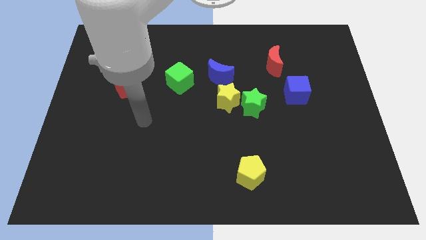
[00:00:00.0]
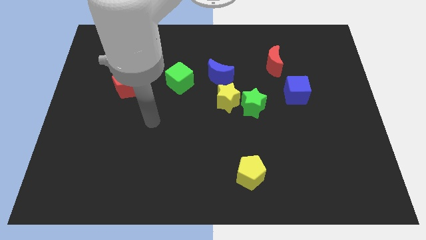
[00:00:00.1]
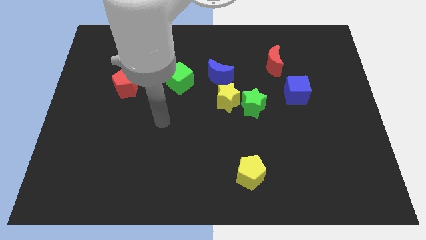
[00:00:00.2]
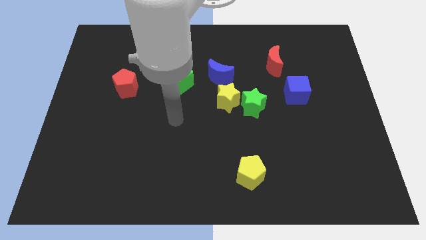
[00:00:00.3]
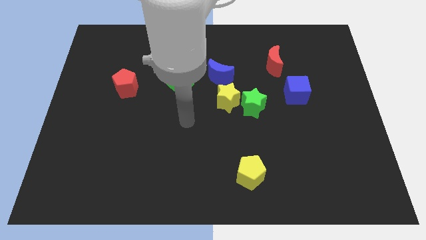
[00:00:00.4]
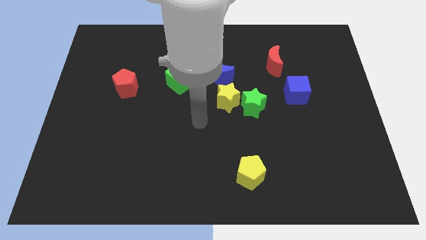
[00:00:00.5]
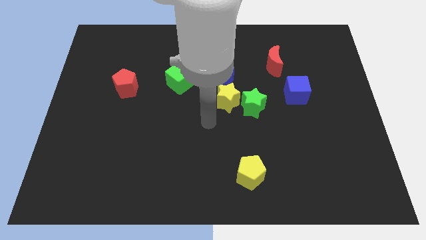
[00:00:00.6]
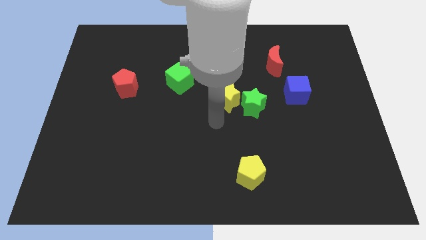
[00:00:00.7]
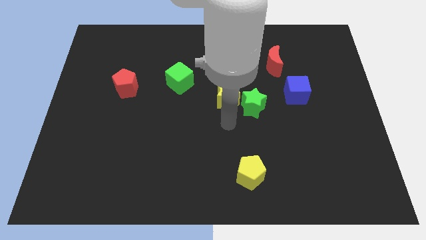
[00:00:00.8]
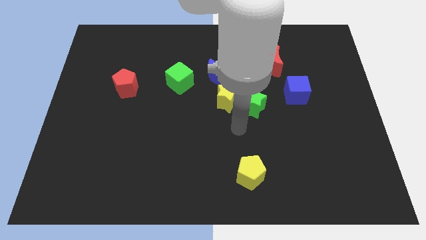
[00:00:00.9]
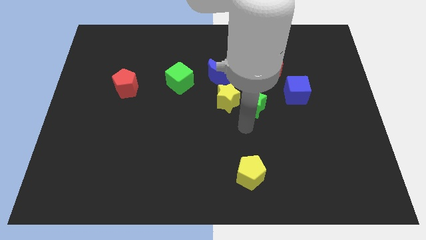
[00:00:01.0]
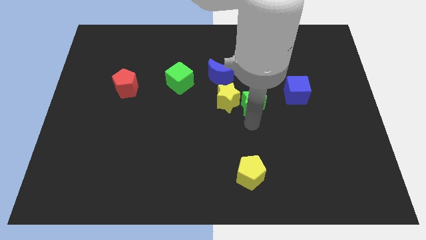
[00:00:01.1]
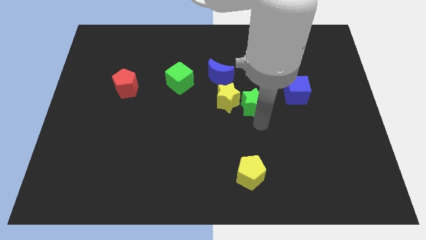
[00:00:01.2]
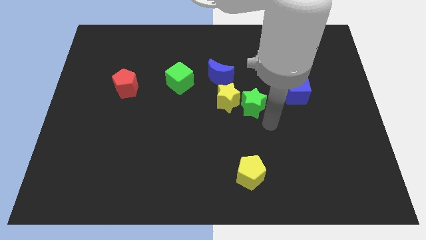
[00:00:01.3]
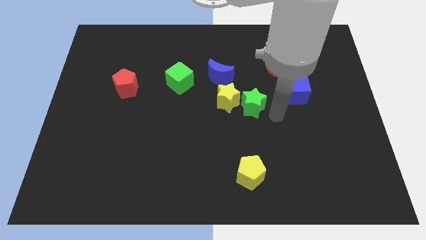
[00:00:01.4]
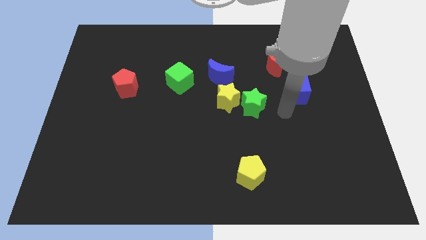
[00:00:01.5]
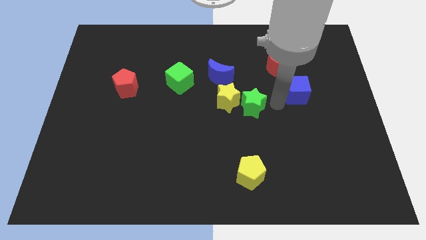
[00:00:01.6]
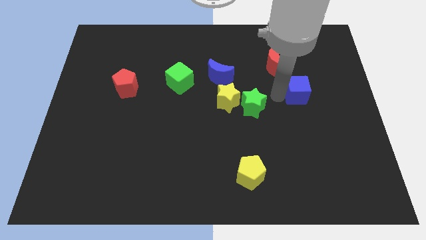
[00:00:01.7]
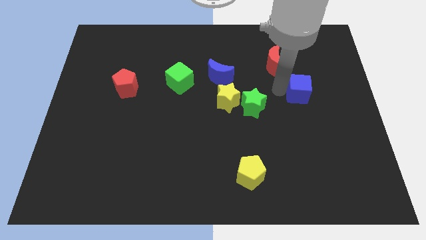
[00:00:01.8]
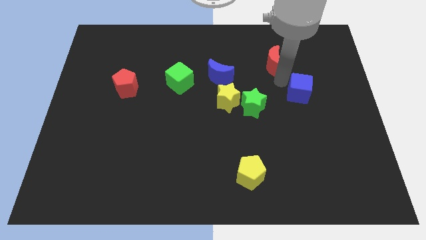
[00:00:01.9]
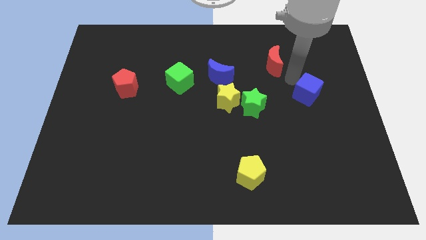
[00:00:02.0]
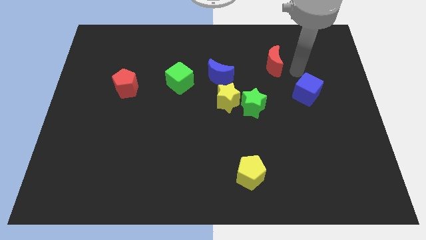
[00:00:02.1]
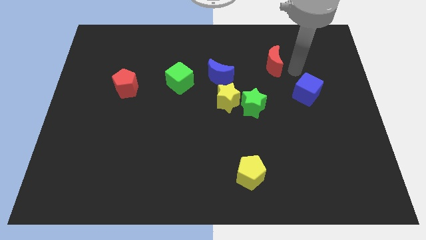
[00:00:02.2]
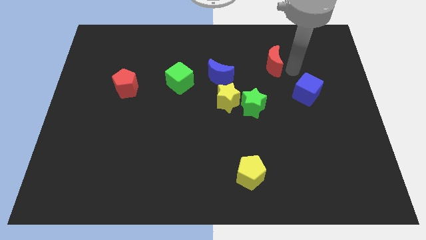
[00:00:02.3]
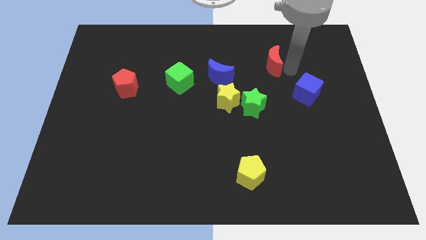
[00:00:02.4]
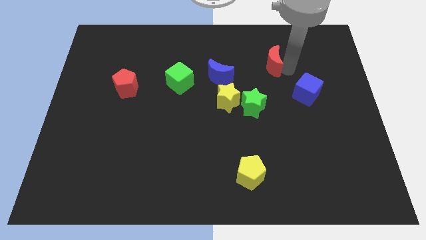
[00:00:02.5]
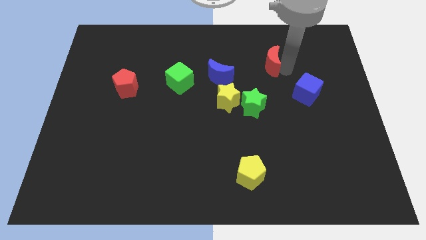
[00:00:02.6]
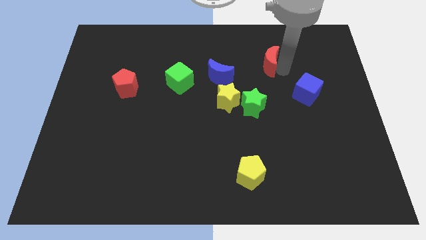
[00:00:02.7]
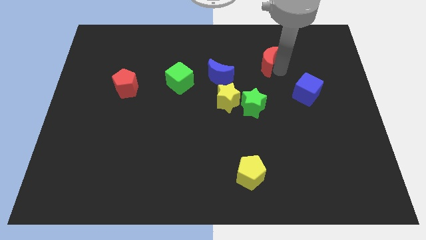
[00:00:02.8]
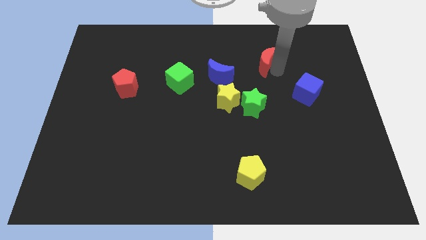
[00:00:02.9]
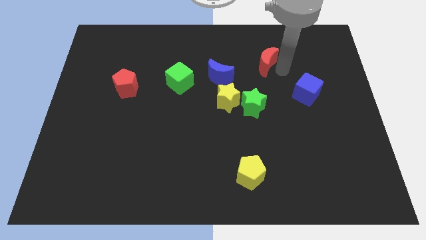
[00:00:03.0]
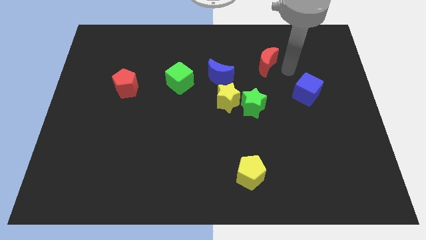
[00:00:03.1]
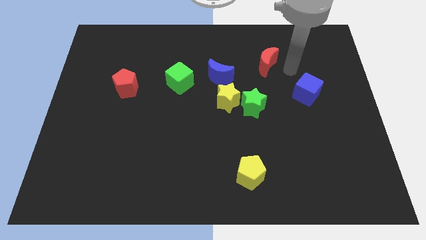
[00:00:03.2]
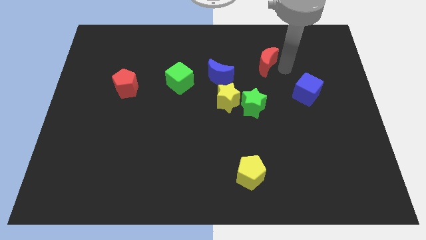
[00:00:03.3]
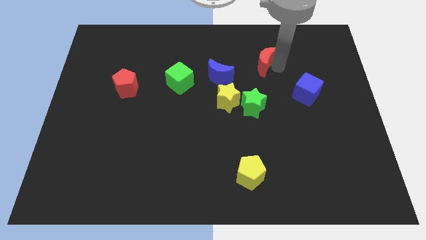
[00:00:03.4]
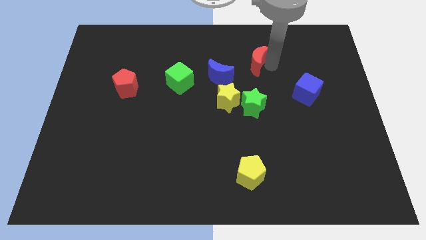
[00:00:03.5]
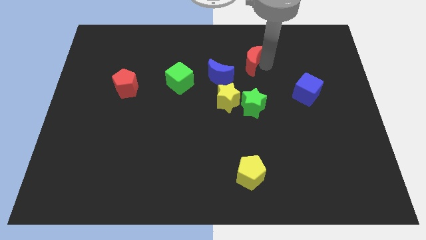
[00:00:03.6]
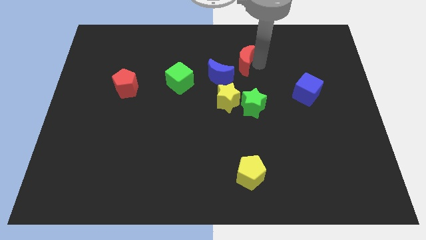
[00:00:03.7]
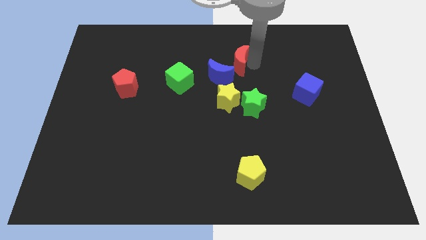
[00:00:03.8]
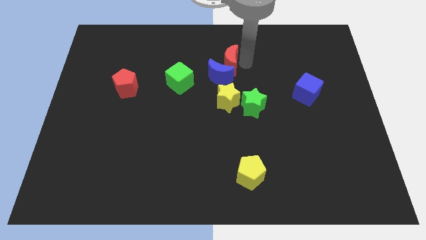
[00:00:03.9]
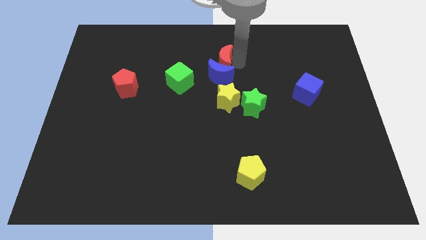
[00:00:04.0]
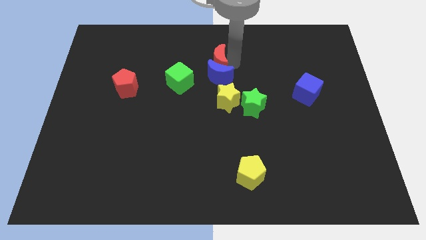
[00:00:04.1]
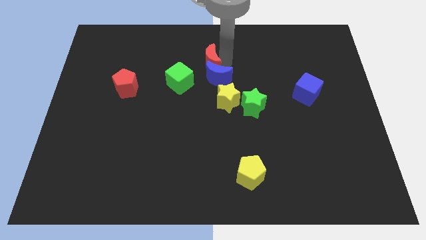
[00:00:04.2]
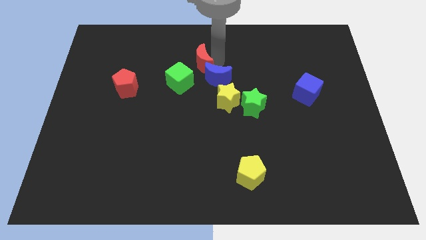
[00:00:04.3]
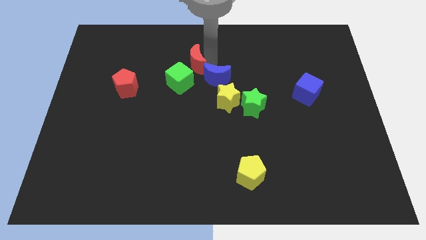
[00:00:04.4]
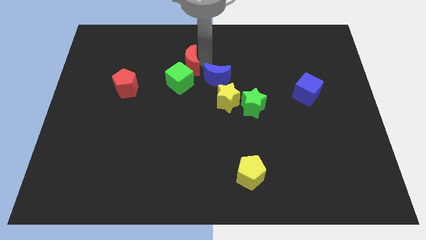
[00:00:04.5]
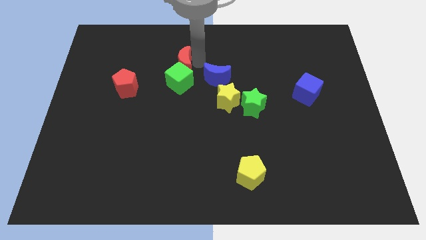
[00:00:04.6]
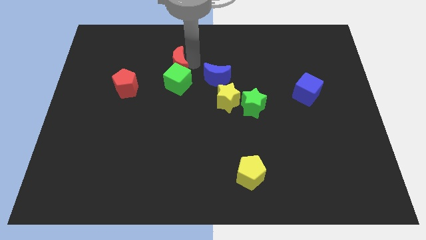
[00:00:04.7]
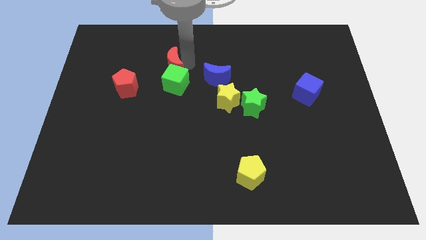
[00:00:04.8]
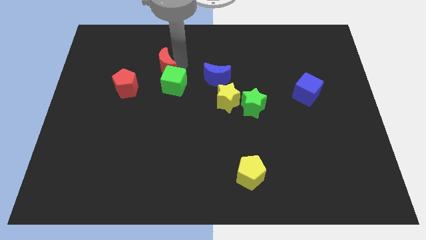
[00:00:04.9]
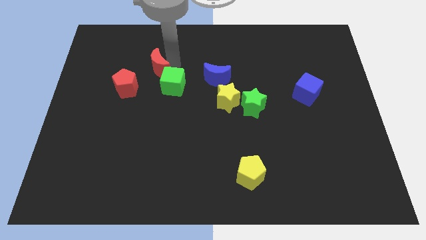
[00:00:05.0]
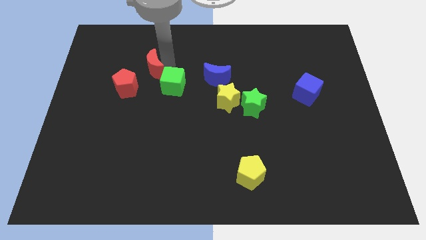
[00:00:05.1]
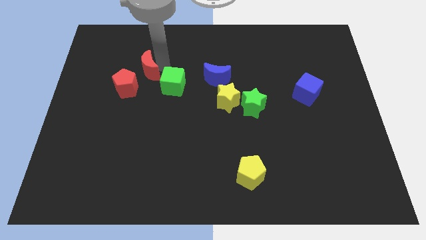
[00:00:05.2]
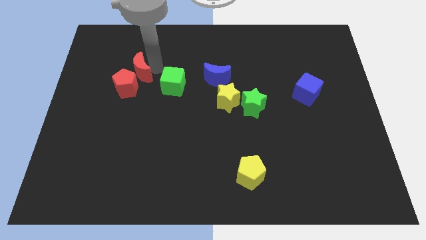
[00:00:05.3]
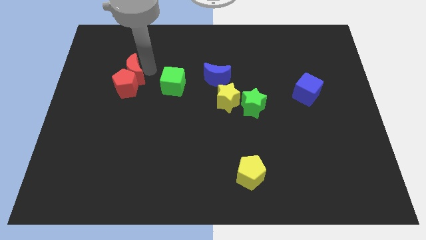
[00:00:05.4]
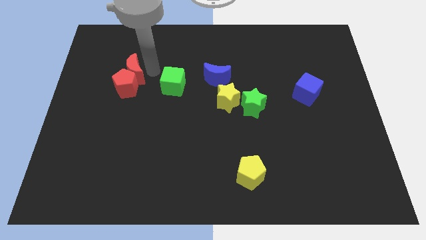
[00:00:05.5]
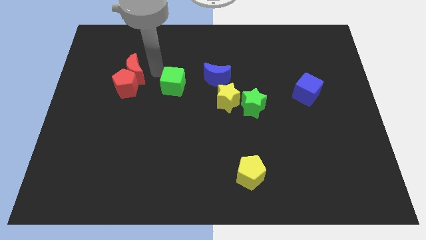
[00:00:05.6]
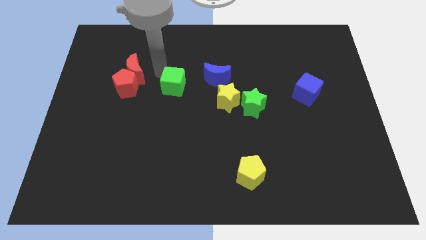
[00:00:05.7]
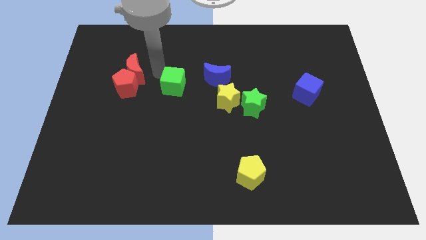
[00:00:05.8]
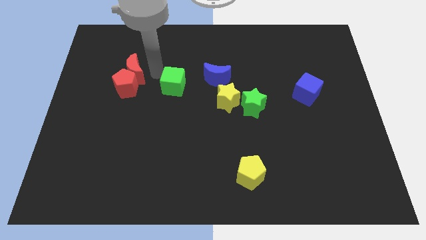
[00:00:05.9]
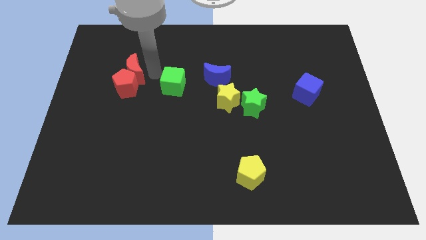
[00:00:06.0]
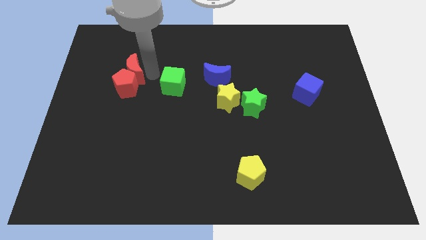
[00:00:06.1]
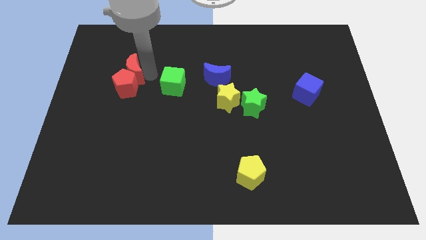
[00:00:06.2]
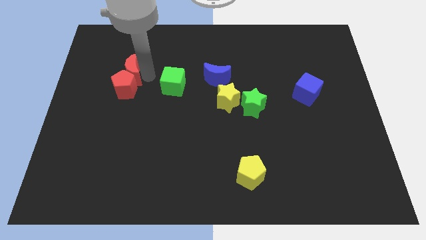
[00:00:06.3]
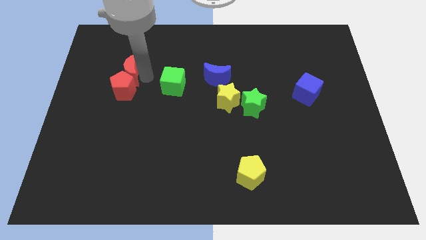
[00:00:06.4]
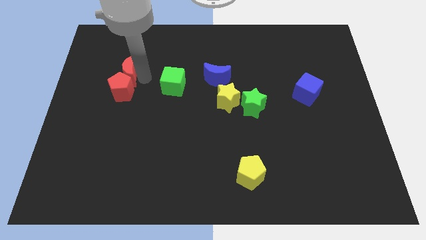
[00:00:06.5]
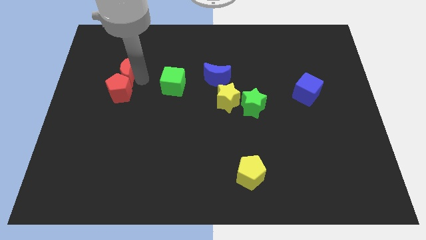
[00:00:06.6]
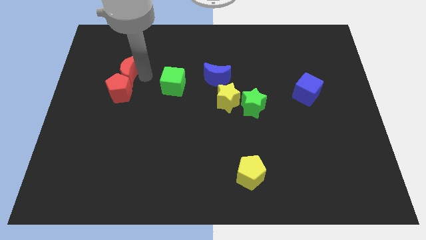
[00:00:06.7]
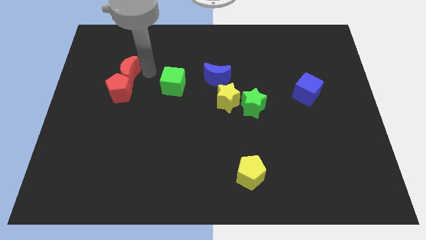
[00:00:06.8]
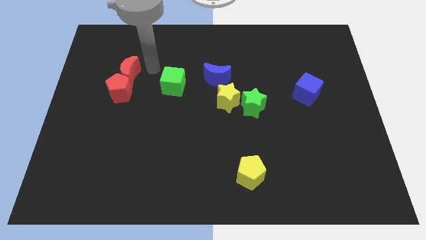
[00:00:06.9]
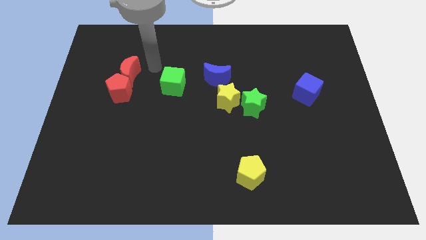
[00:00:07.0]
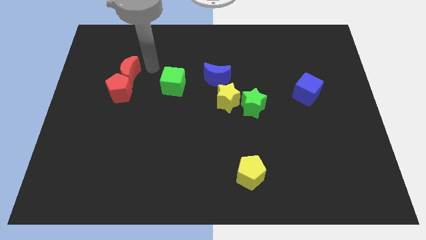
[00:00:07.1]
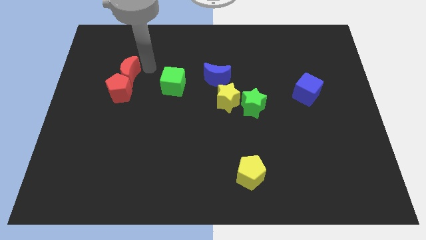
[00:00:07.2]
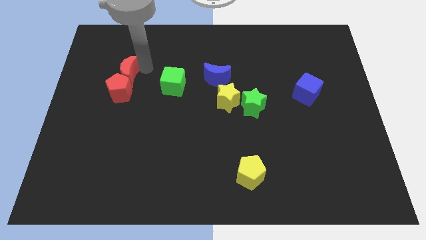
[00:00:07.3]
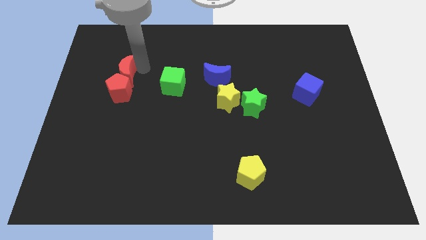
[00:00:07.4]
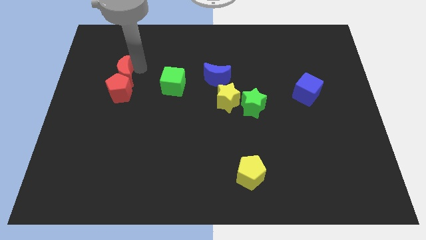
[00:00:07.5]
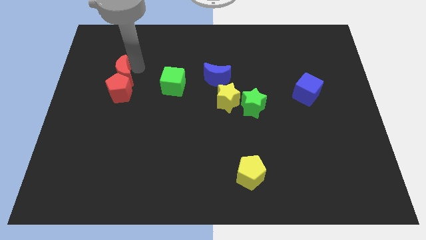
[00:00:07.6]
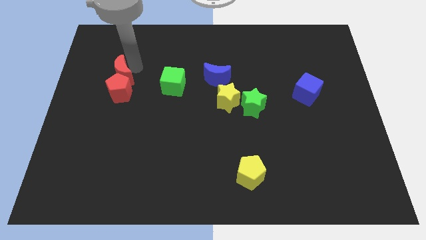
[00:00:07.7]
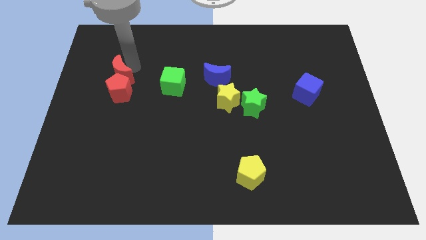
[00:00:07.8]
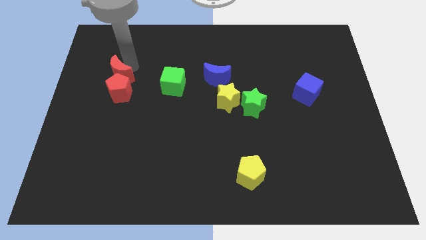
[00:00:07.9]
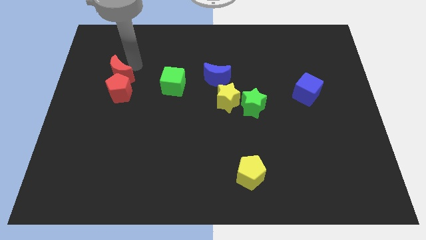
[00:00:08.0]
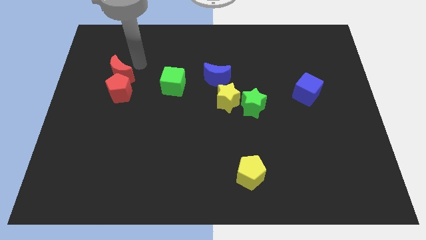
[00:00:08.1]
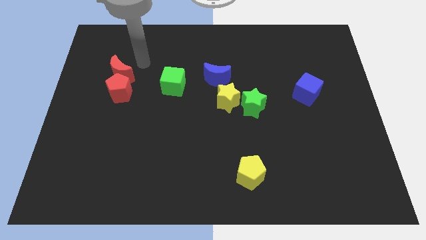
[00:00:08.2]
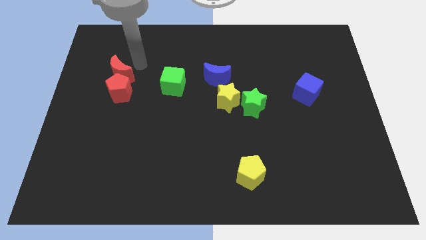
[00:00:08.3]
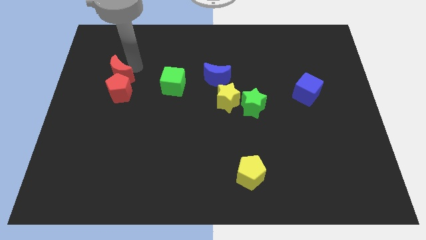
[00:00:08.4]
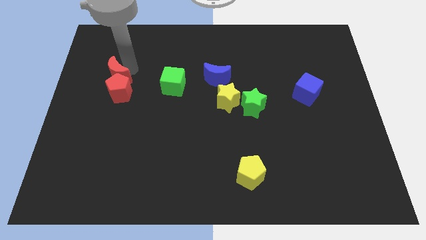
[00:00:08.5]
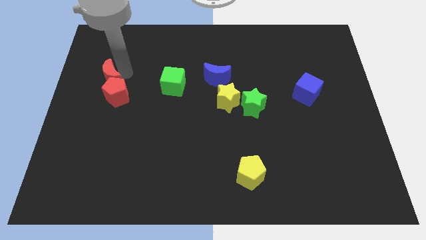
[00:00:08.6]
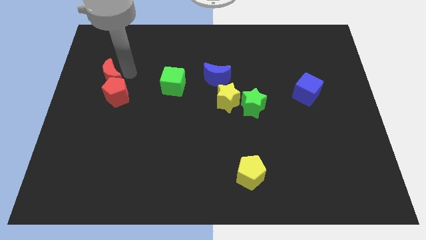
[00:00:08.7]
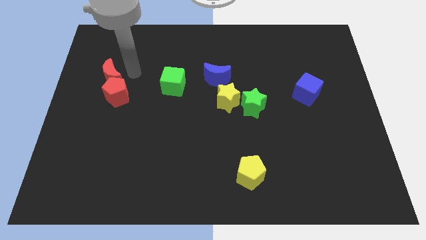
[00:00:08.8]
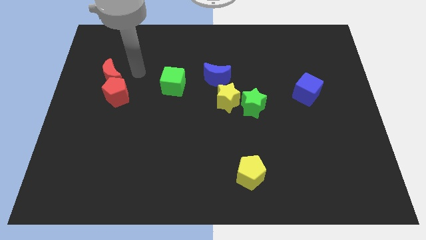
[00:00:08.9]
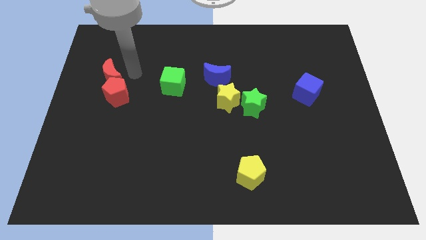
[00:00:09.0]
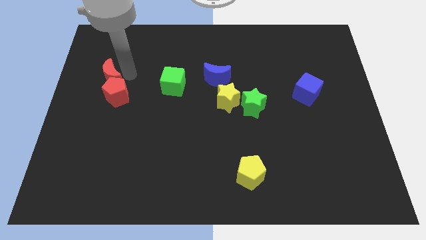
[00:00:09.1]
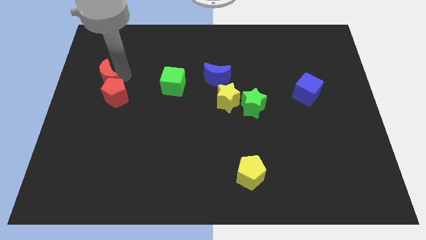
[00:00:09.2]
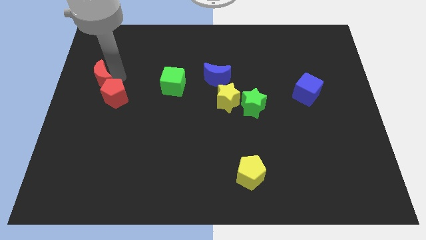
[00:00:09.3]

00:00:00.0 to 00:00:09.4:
move the red moon to the left side
